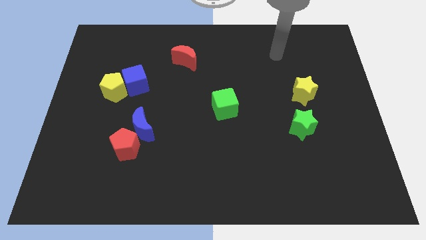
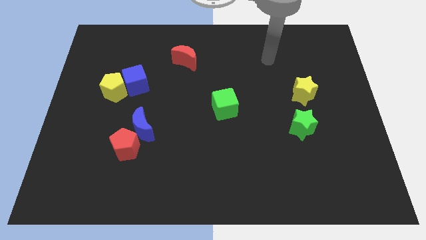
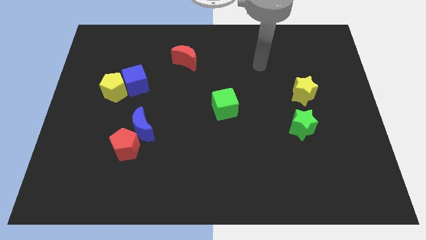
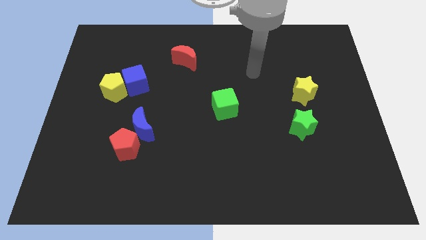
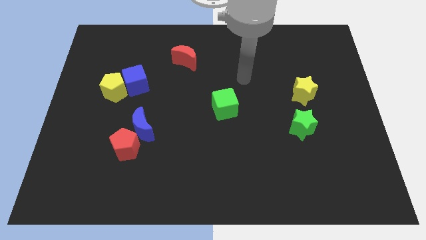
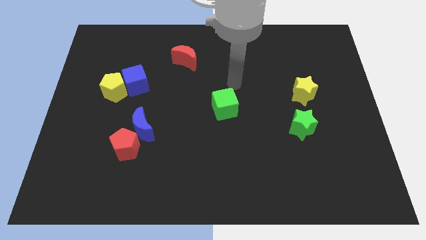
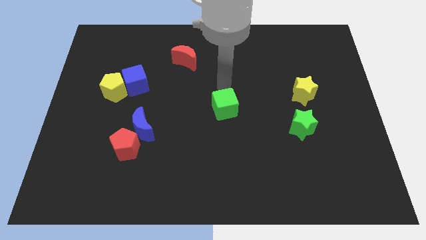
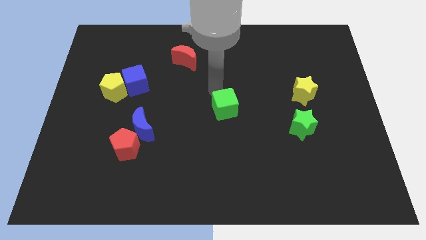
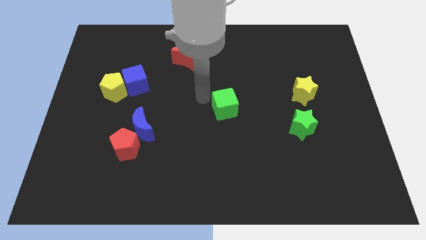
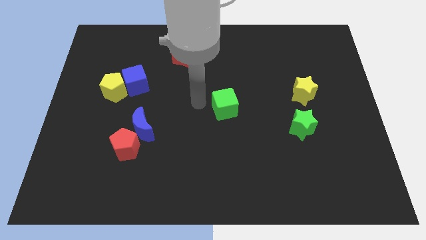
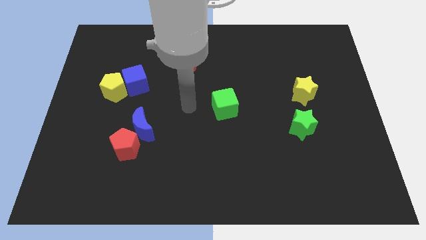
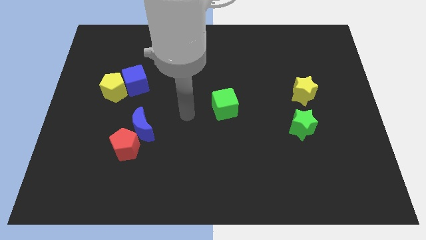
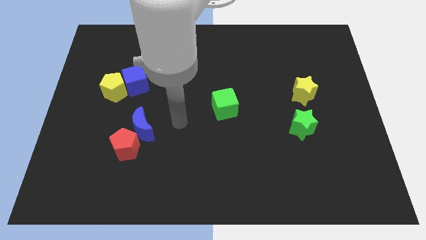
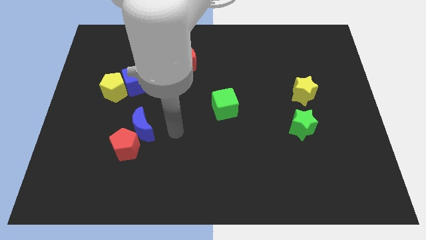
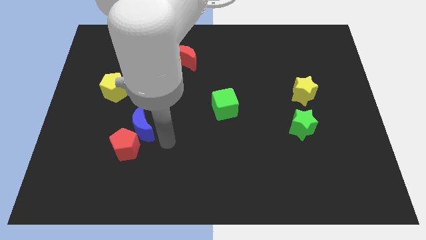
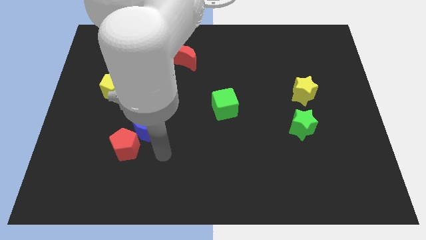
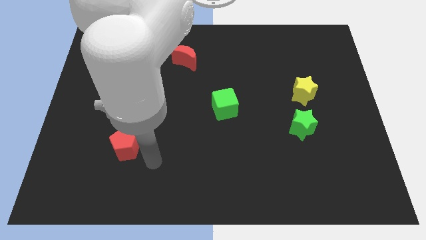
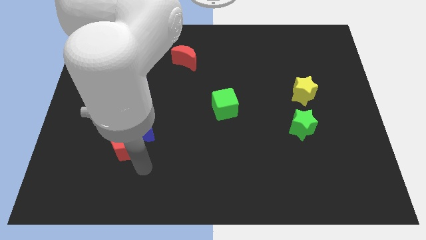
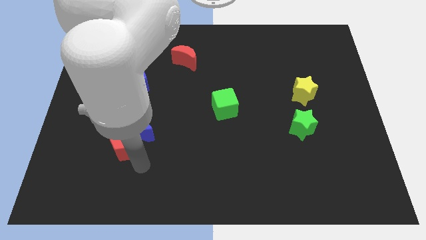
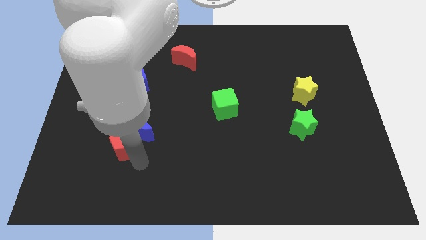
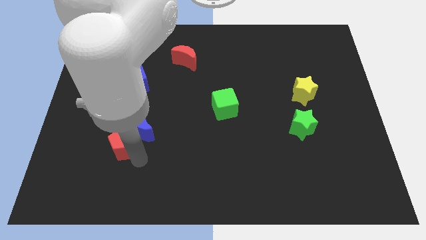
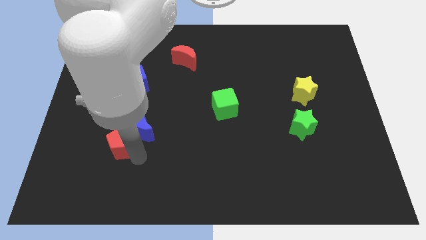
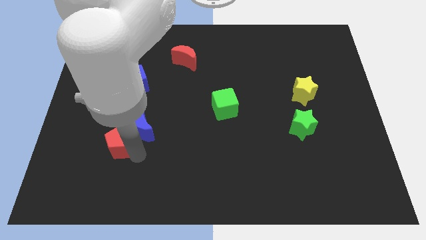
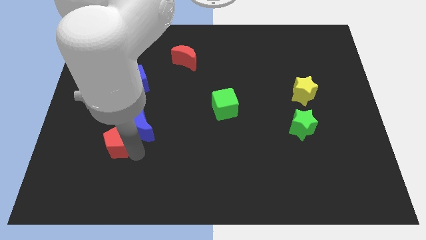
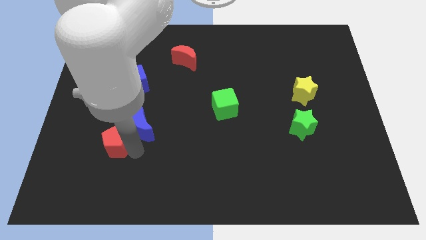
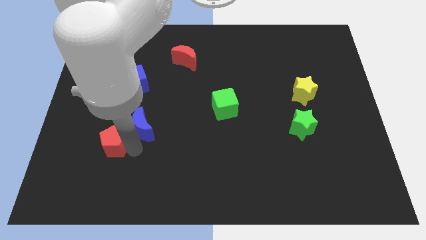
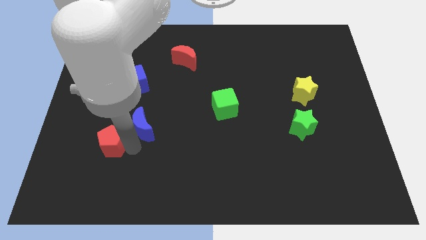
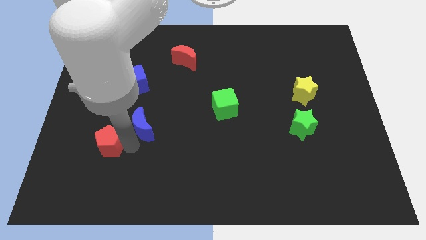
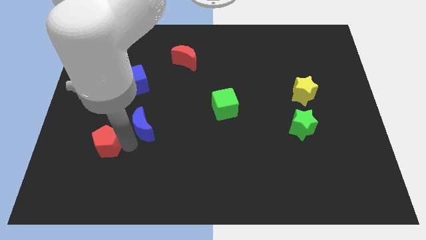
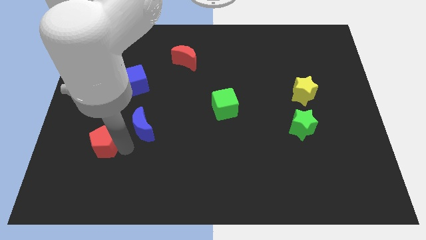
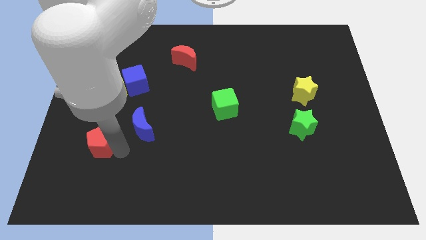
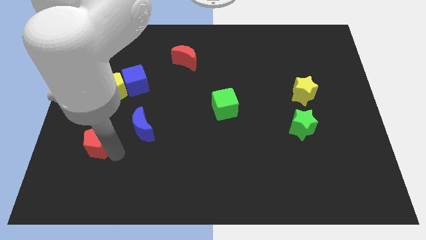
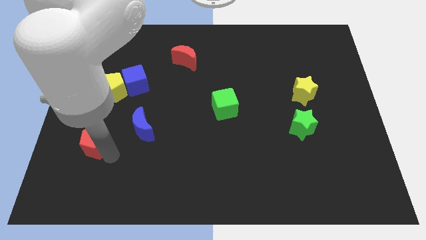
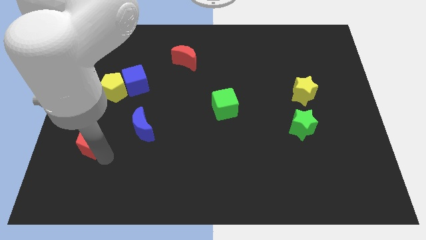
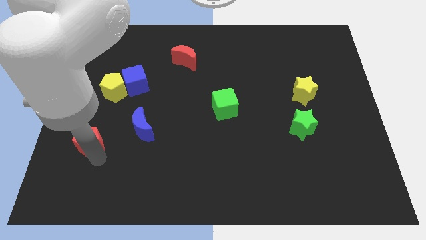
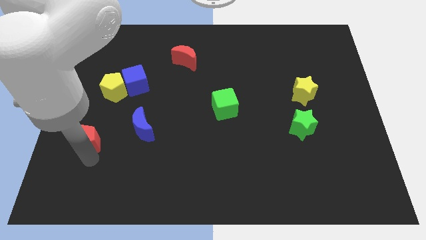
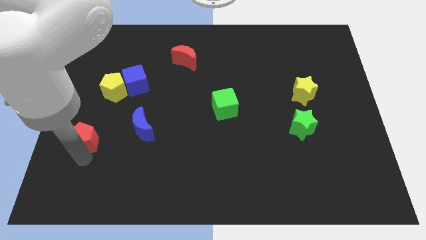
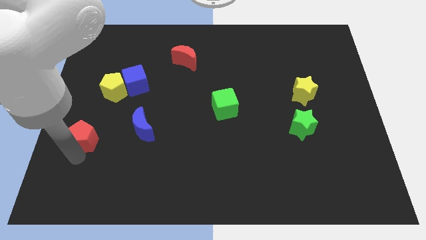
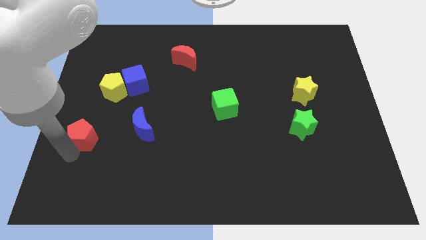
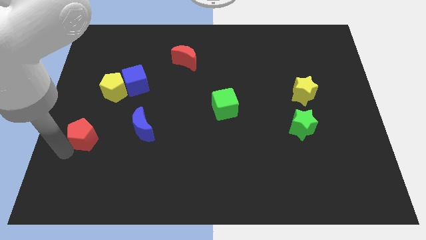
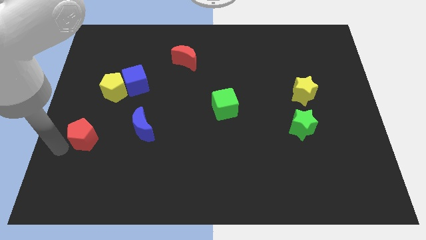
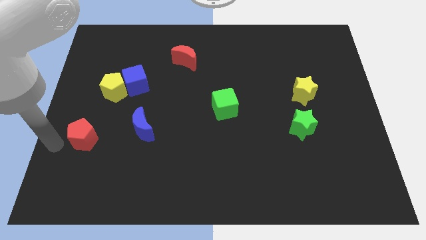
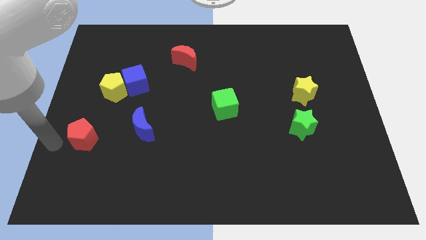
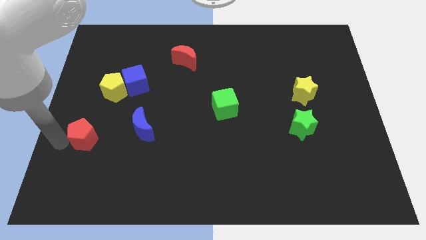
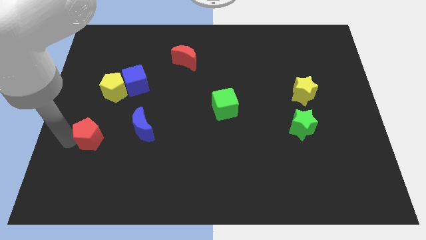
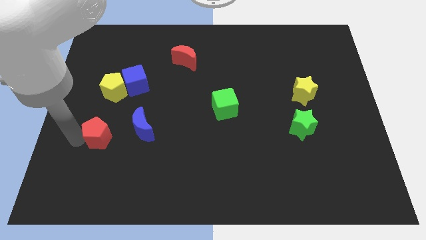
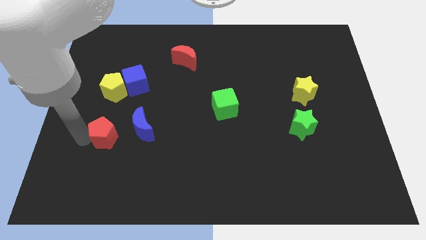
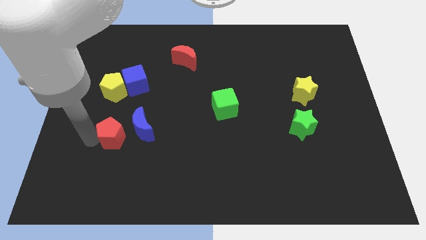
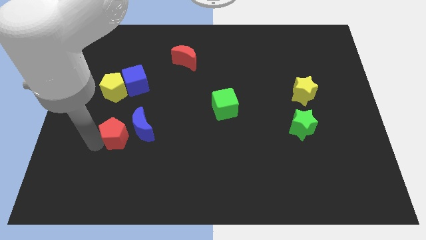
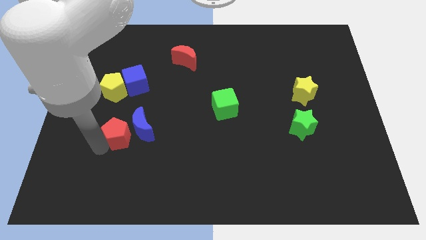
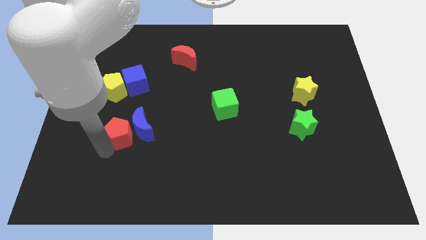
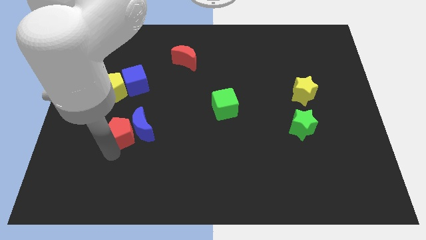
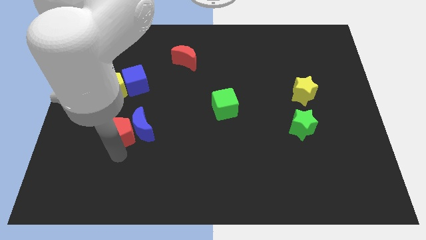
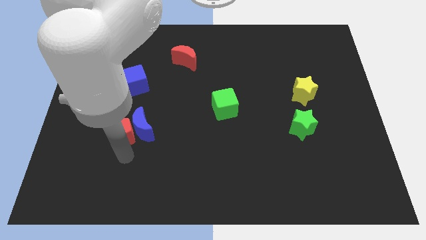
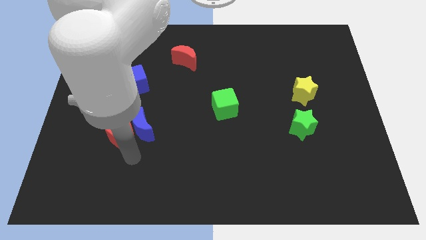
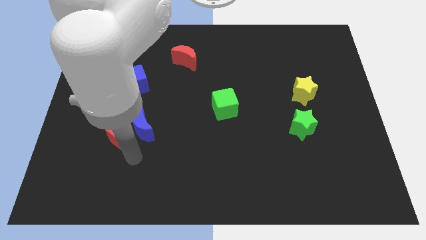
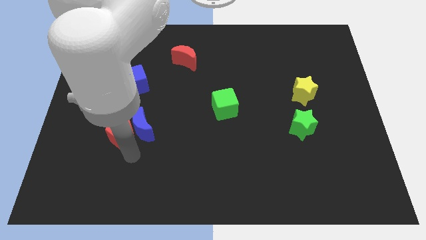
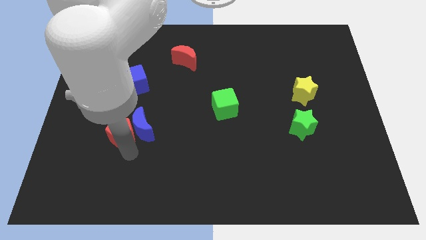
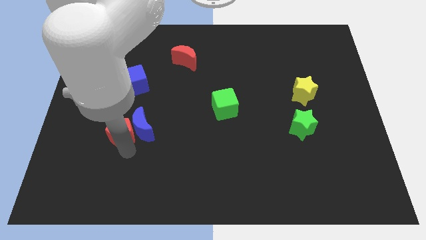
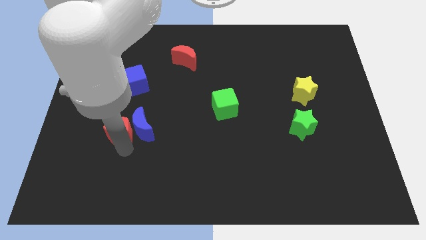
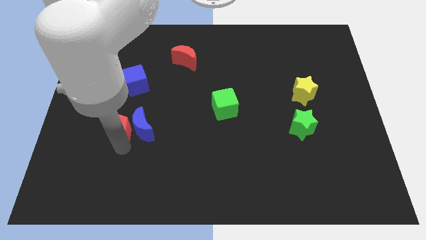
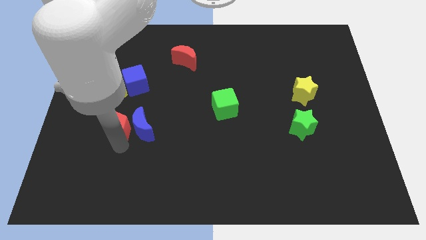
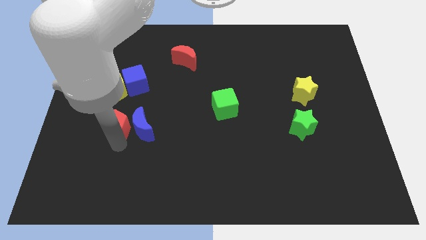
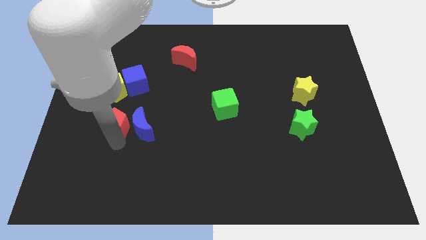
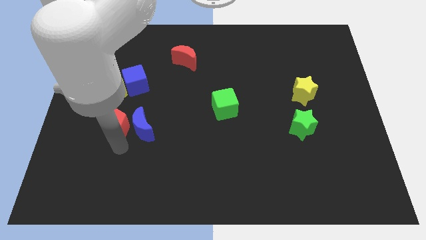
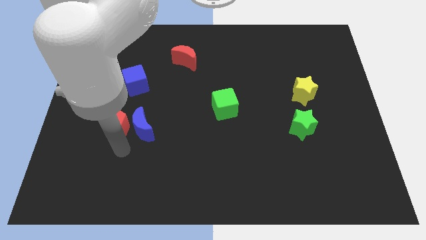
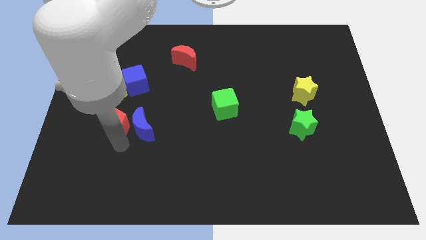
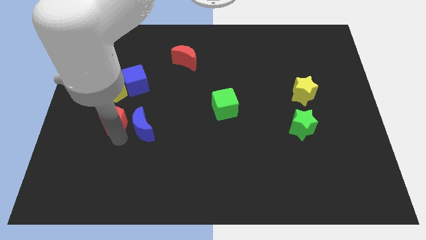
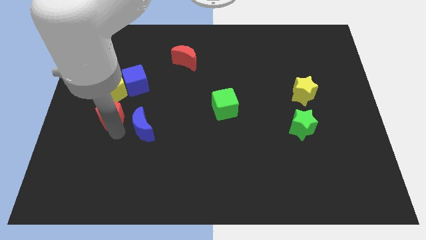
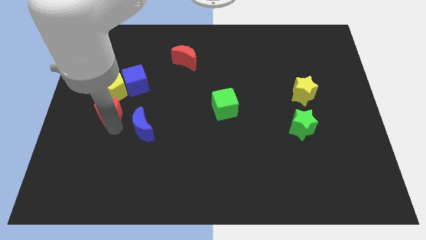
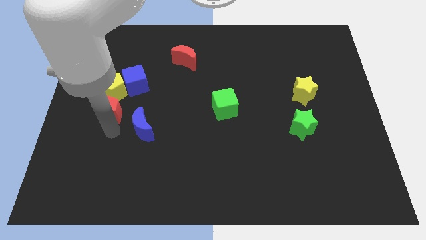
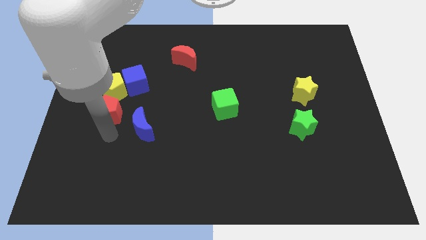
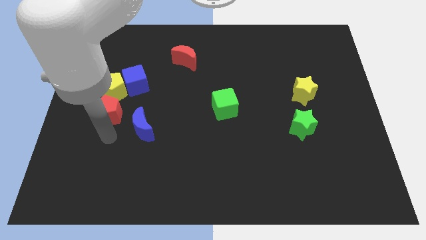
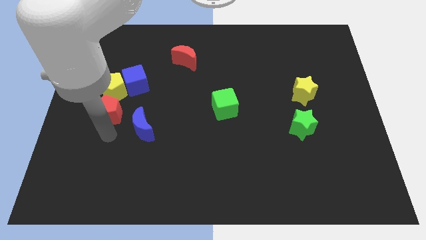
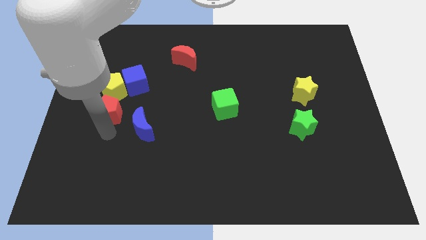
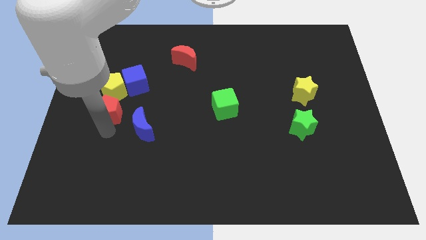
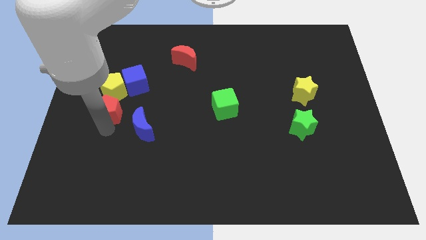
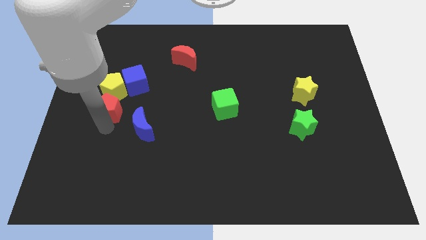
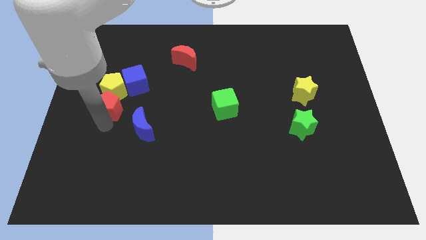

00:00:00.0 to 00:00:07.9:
move the red pentagon towards the yellow pentagon
